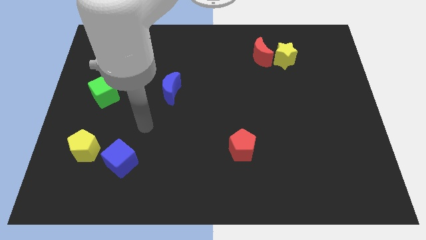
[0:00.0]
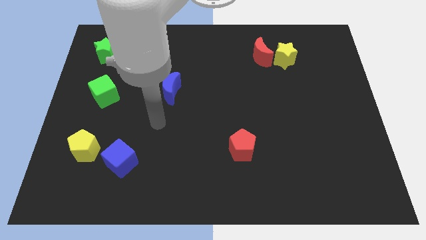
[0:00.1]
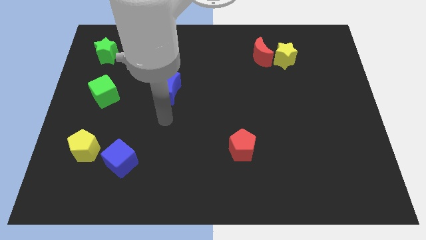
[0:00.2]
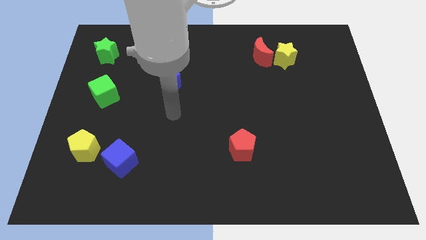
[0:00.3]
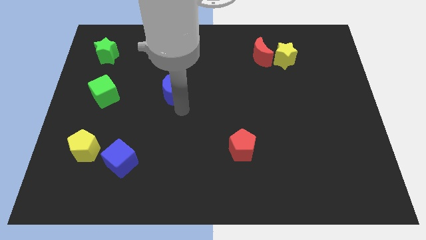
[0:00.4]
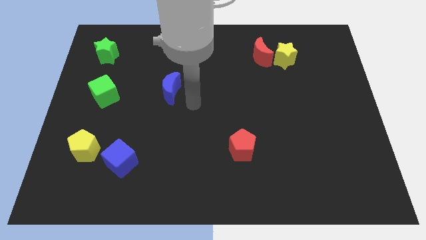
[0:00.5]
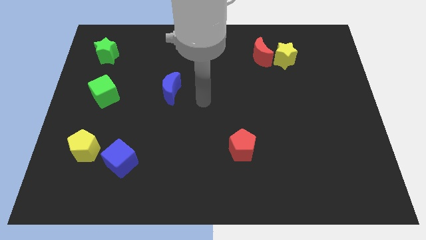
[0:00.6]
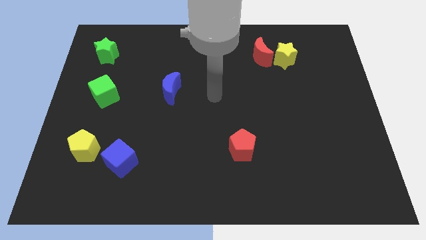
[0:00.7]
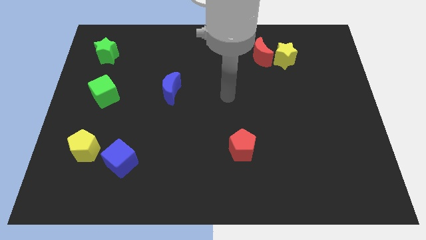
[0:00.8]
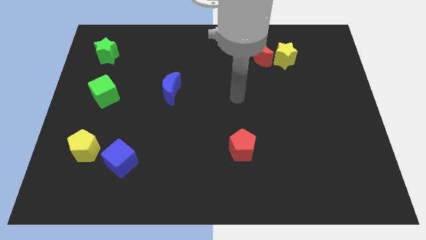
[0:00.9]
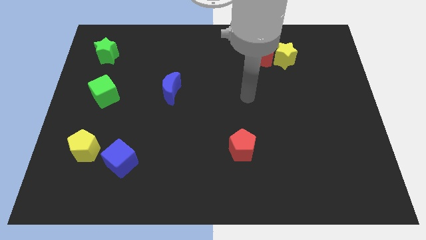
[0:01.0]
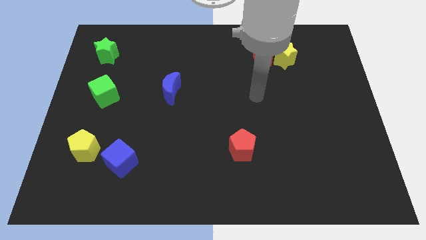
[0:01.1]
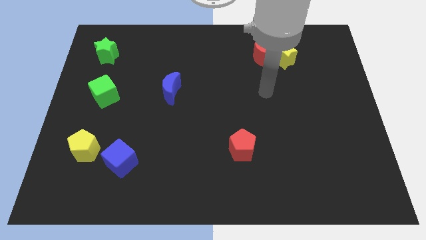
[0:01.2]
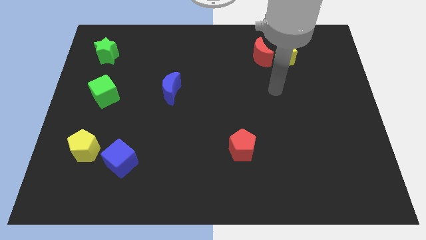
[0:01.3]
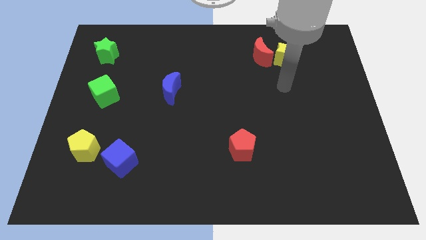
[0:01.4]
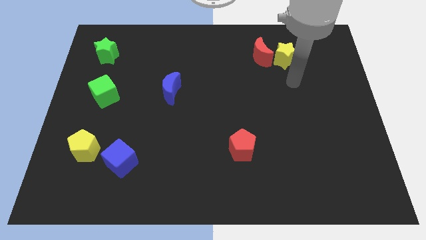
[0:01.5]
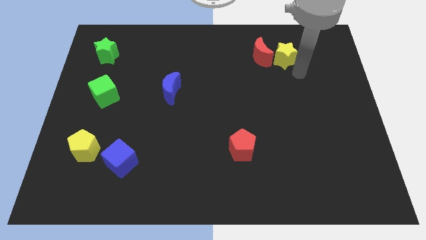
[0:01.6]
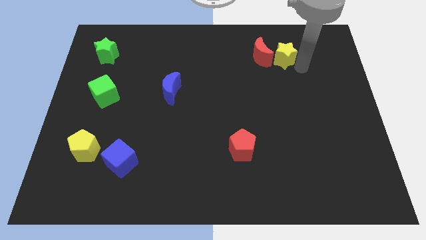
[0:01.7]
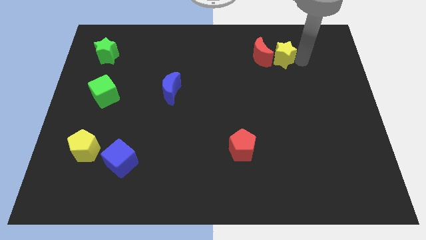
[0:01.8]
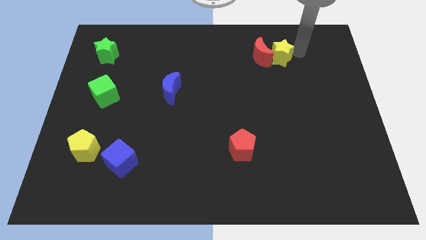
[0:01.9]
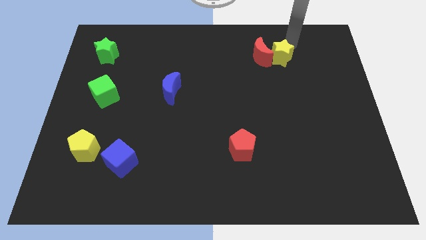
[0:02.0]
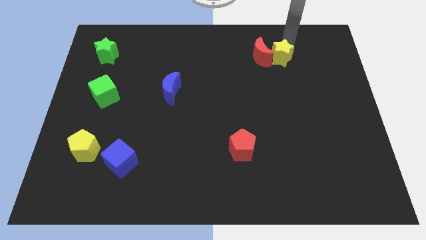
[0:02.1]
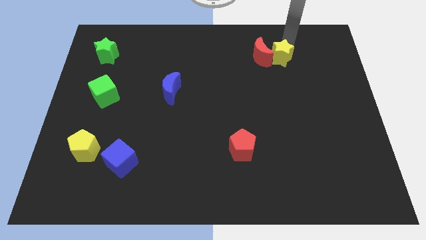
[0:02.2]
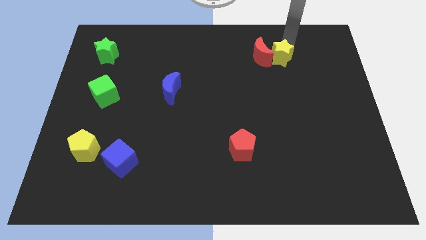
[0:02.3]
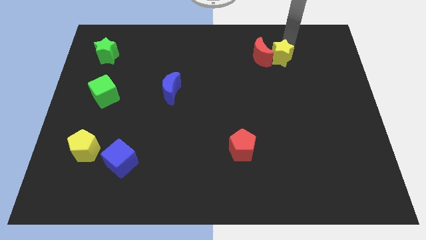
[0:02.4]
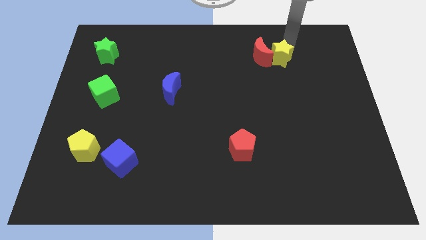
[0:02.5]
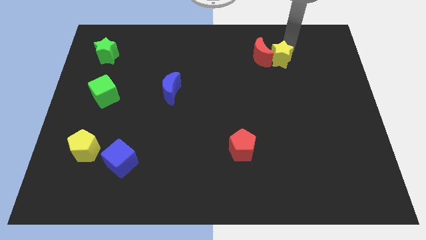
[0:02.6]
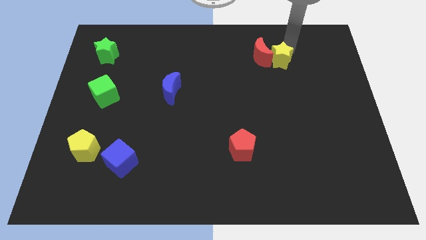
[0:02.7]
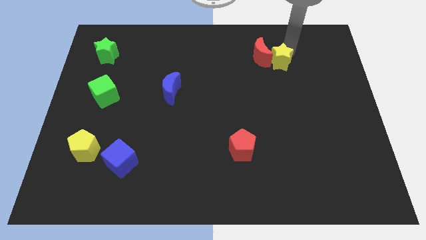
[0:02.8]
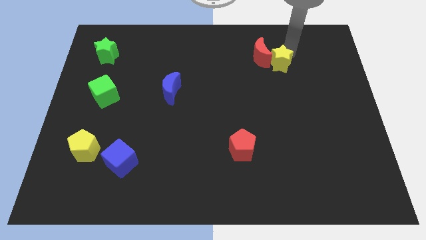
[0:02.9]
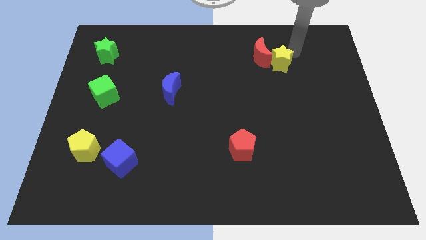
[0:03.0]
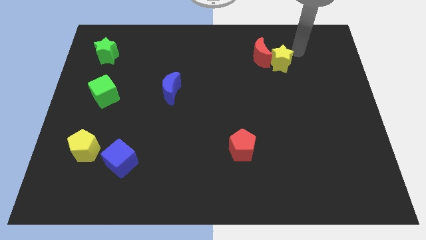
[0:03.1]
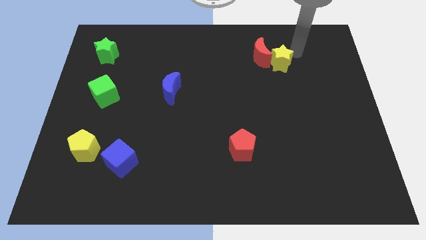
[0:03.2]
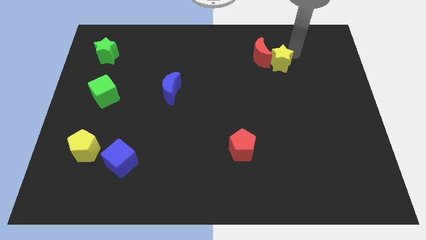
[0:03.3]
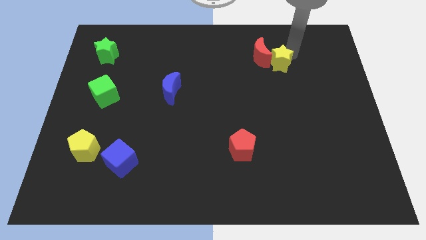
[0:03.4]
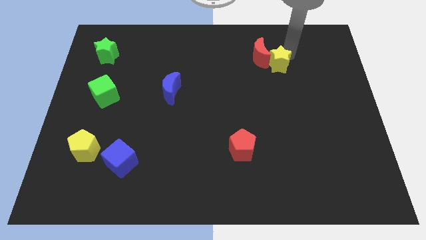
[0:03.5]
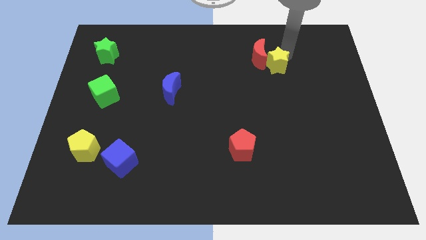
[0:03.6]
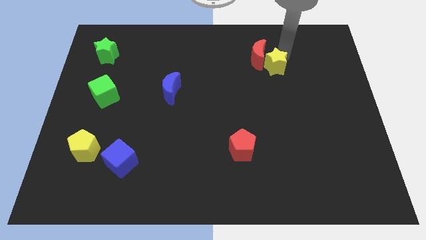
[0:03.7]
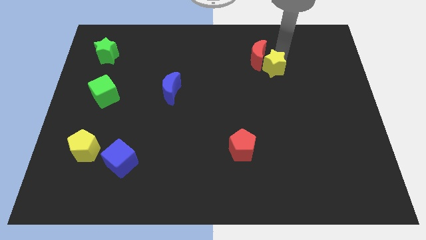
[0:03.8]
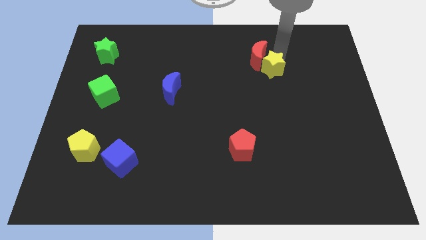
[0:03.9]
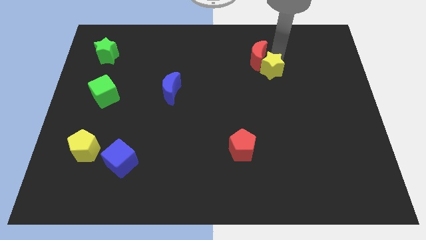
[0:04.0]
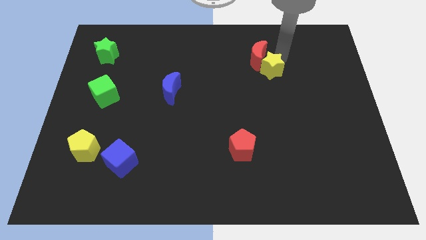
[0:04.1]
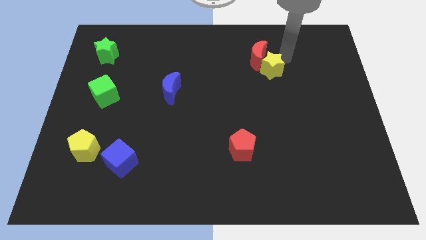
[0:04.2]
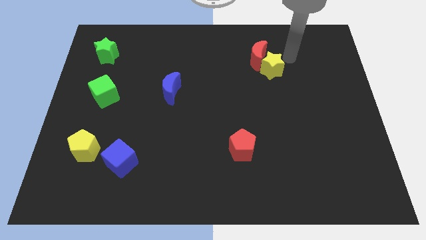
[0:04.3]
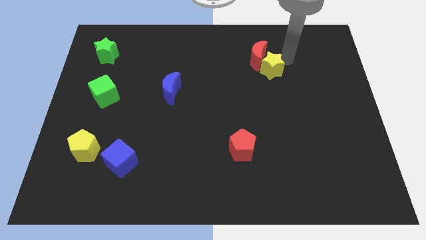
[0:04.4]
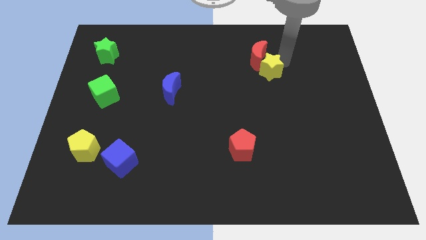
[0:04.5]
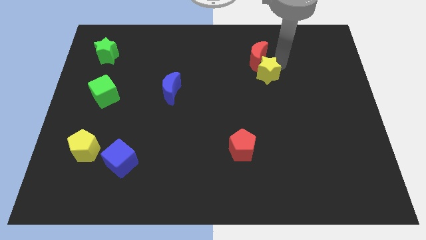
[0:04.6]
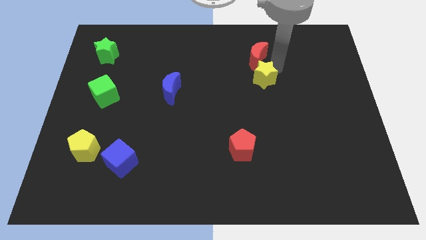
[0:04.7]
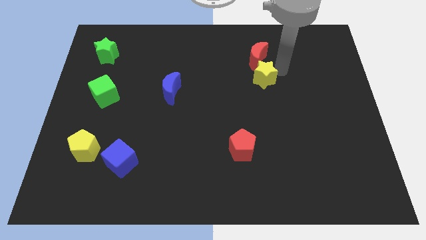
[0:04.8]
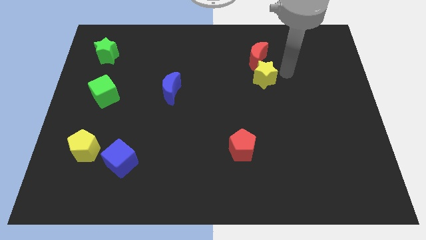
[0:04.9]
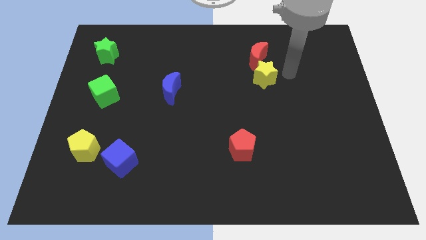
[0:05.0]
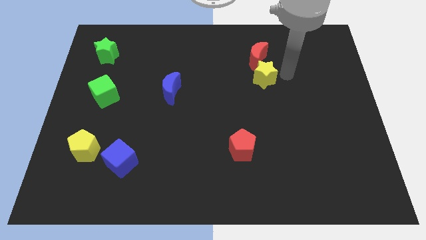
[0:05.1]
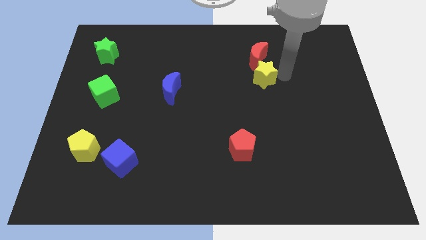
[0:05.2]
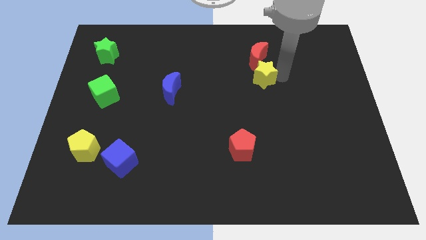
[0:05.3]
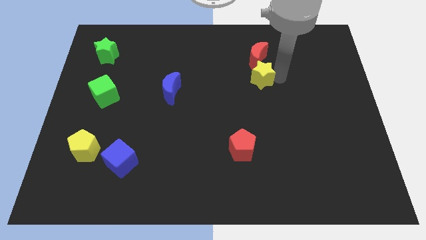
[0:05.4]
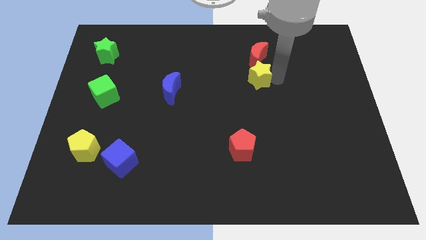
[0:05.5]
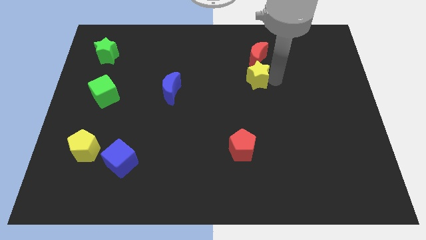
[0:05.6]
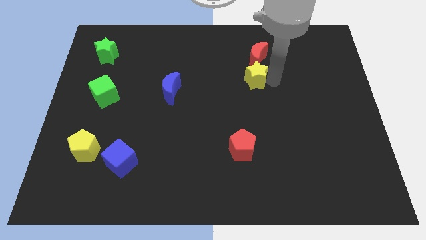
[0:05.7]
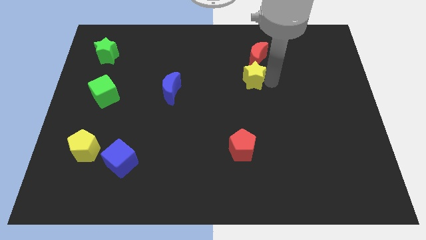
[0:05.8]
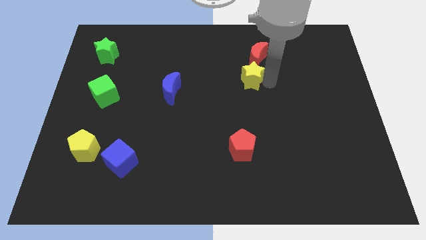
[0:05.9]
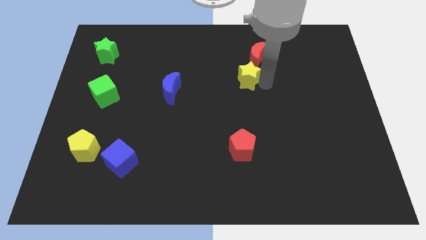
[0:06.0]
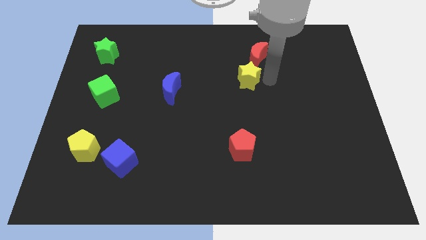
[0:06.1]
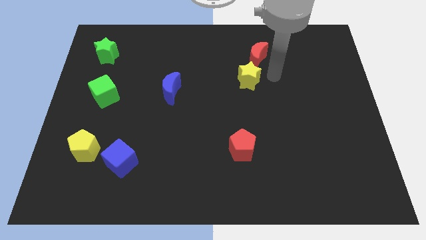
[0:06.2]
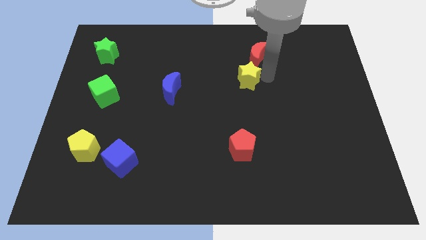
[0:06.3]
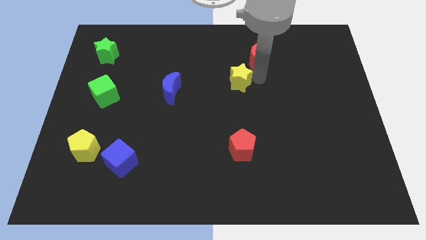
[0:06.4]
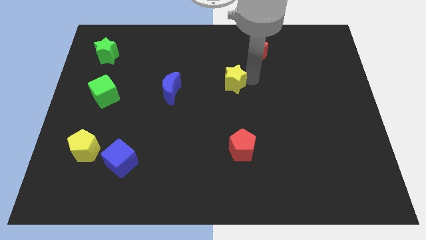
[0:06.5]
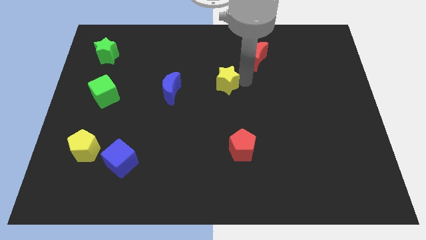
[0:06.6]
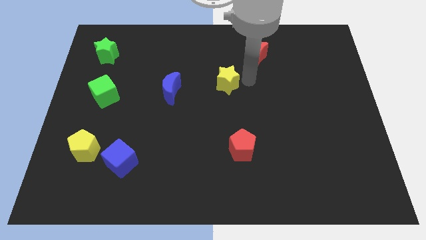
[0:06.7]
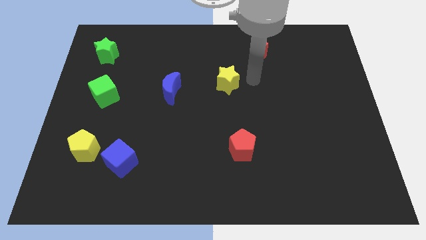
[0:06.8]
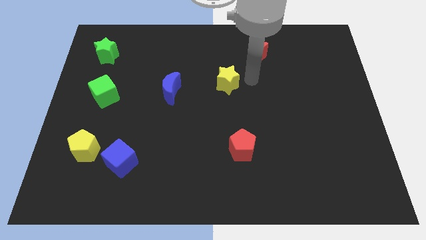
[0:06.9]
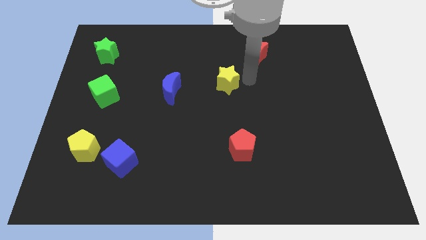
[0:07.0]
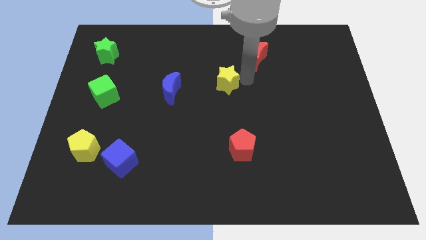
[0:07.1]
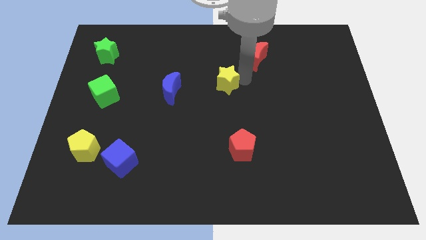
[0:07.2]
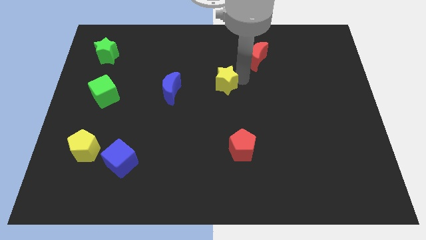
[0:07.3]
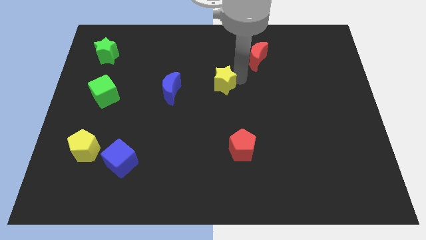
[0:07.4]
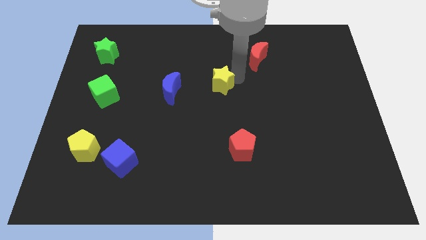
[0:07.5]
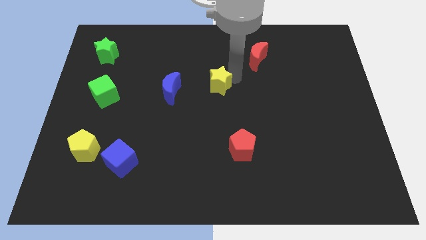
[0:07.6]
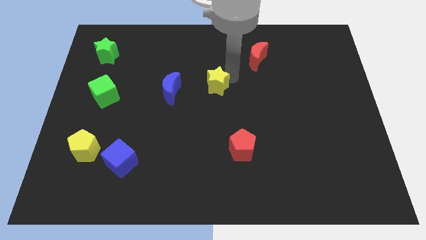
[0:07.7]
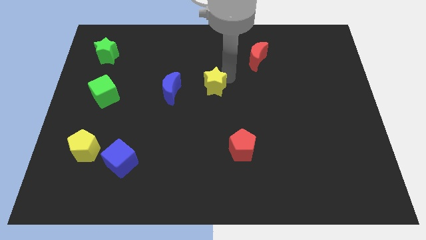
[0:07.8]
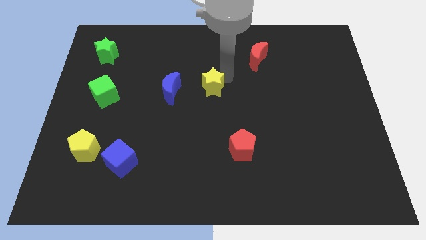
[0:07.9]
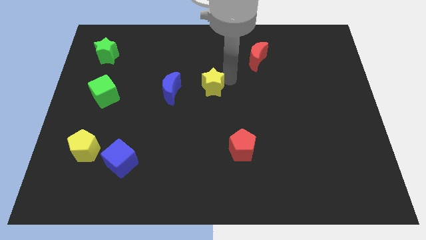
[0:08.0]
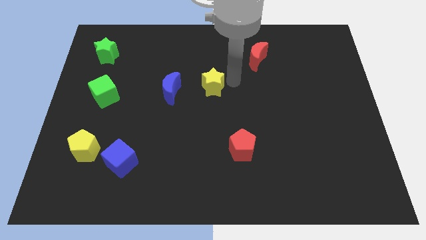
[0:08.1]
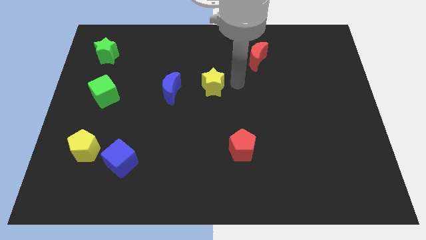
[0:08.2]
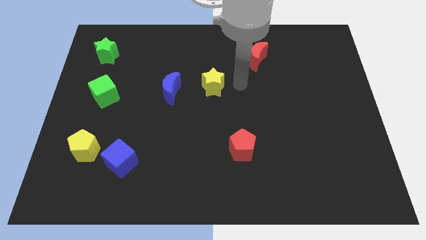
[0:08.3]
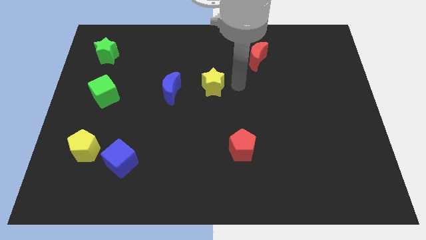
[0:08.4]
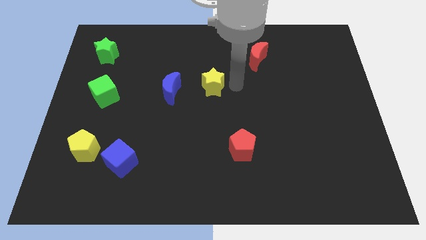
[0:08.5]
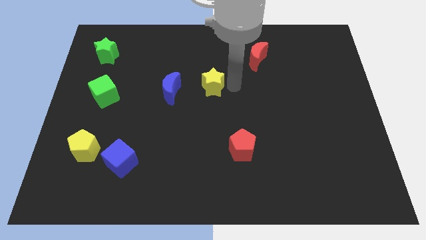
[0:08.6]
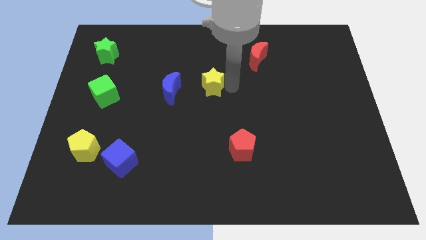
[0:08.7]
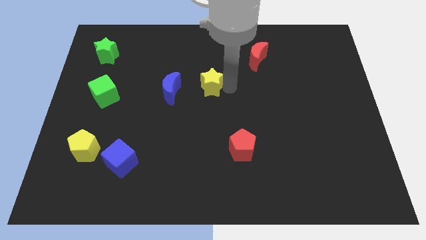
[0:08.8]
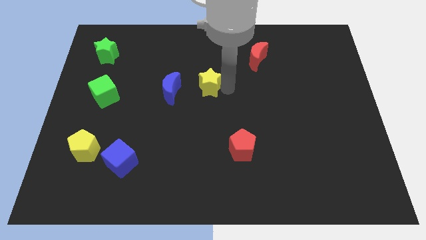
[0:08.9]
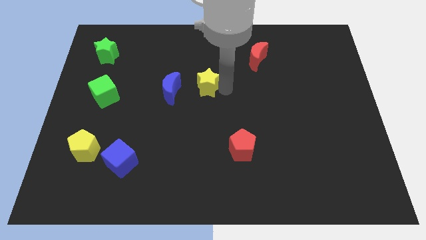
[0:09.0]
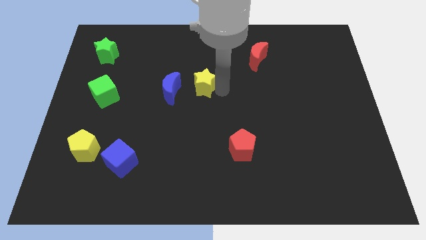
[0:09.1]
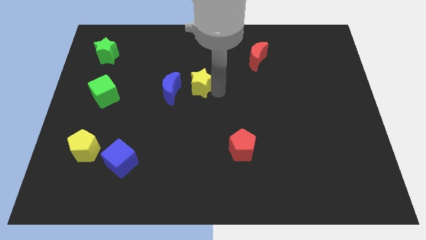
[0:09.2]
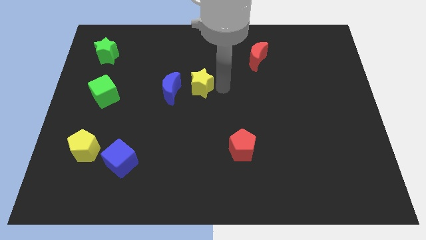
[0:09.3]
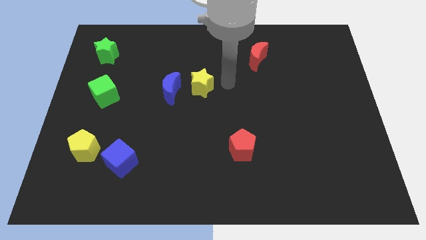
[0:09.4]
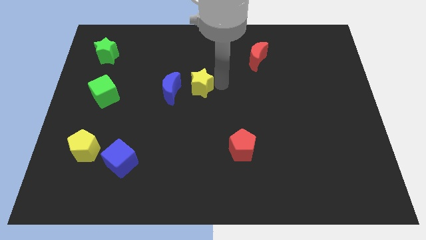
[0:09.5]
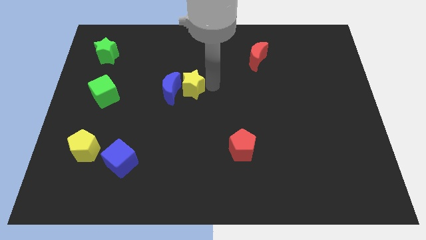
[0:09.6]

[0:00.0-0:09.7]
put the yellow star close to the blue moon
